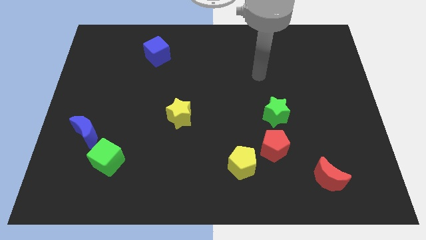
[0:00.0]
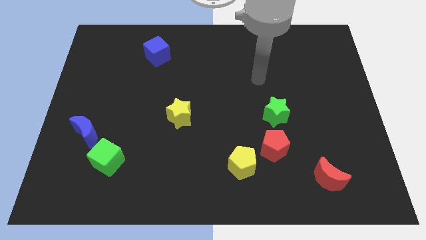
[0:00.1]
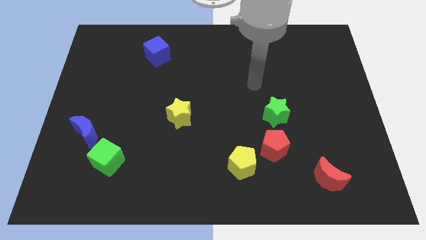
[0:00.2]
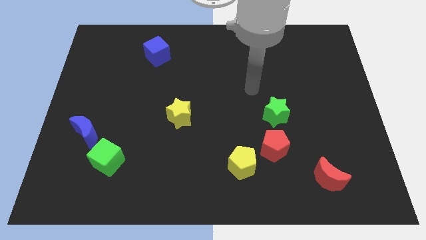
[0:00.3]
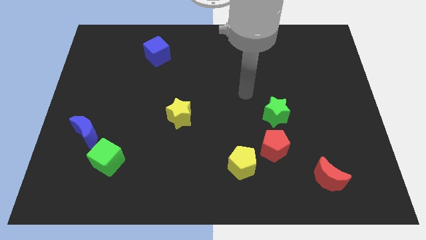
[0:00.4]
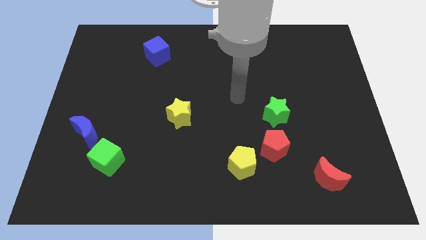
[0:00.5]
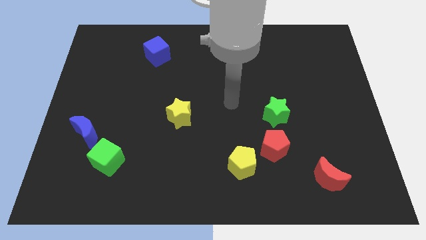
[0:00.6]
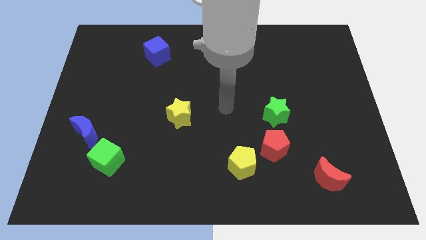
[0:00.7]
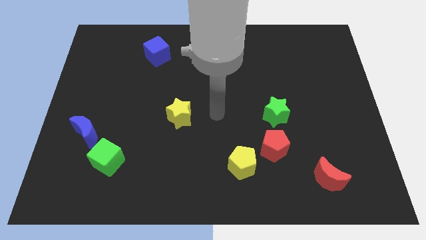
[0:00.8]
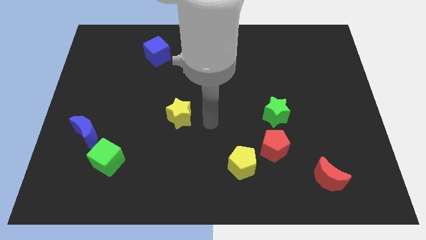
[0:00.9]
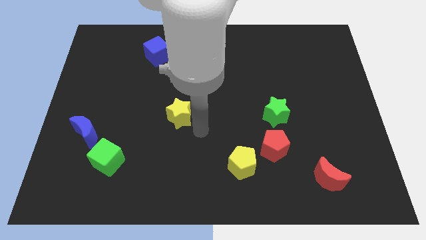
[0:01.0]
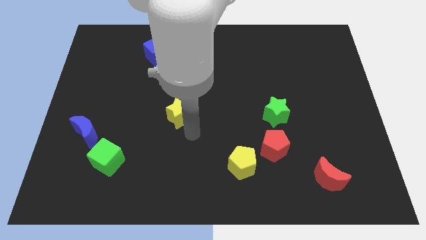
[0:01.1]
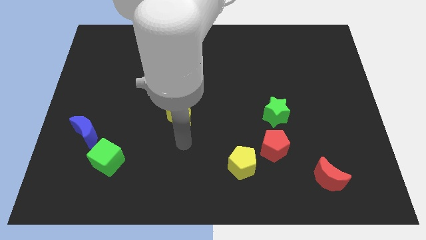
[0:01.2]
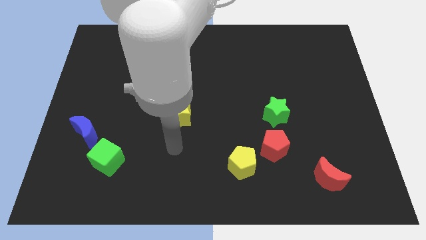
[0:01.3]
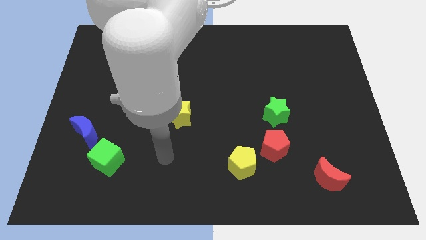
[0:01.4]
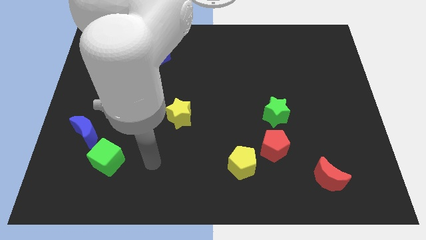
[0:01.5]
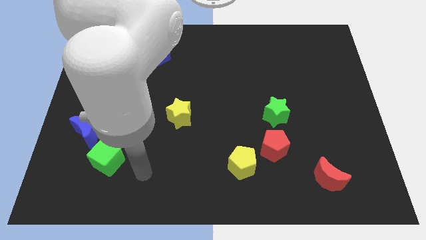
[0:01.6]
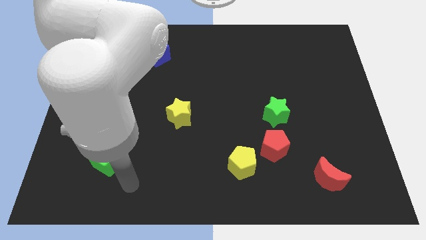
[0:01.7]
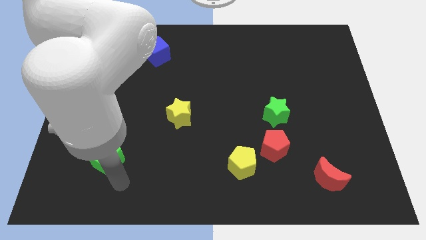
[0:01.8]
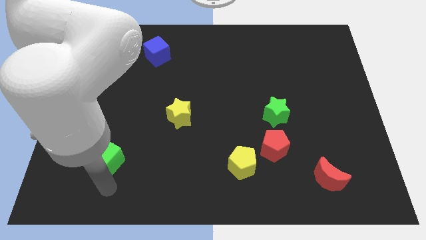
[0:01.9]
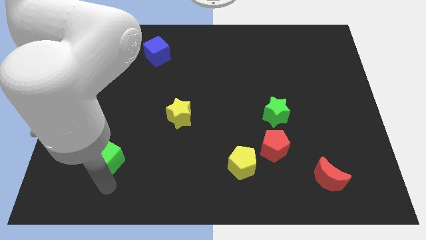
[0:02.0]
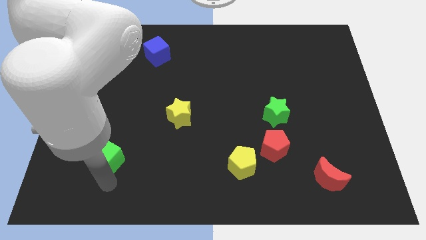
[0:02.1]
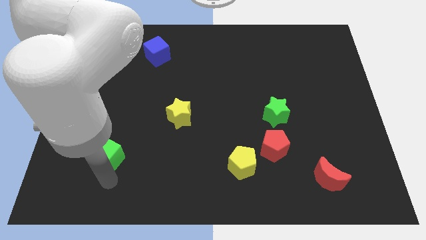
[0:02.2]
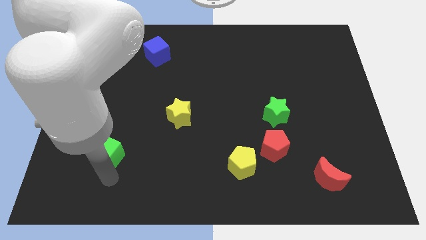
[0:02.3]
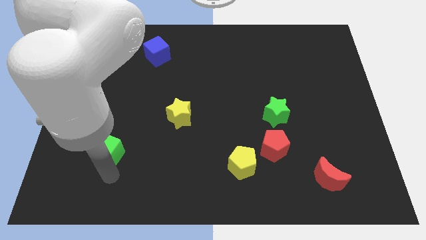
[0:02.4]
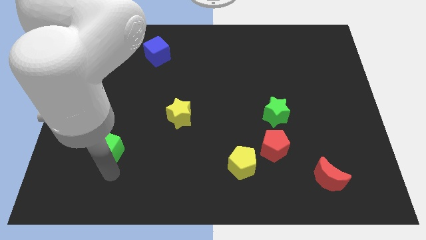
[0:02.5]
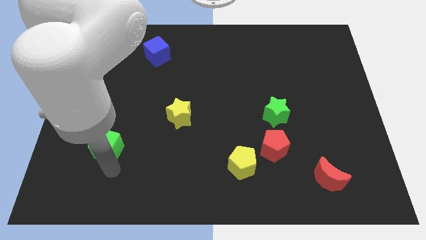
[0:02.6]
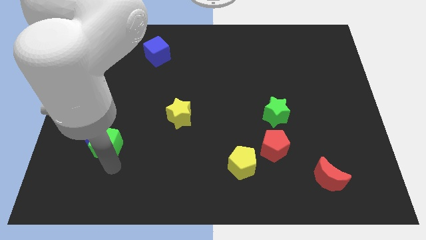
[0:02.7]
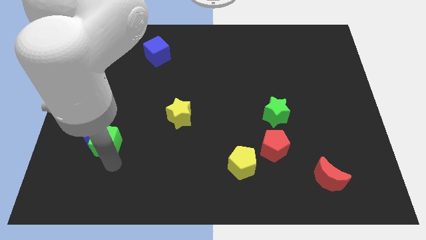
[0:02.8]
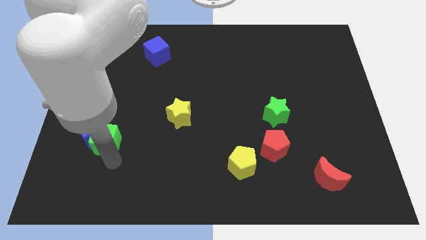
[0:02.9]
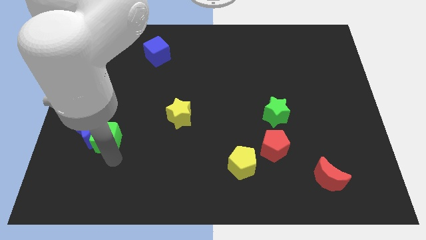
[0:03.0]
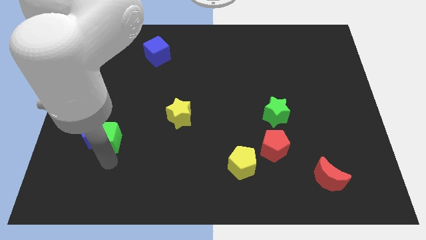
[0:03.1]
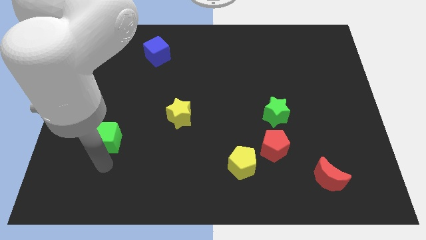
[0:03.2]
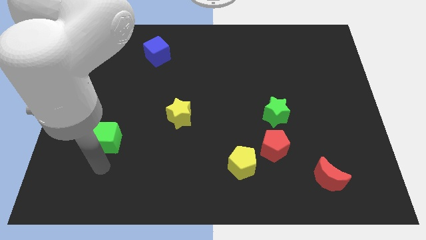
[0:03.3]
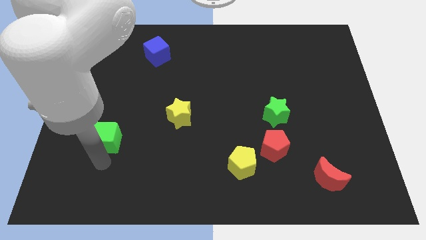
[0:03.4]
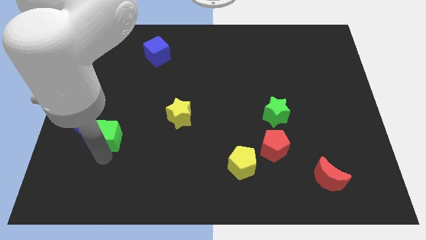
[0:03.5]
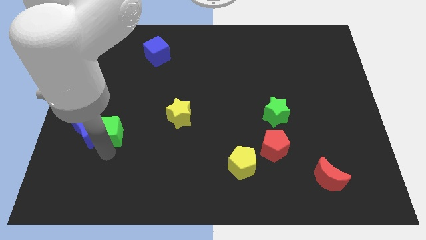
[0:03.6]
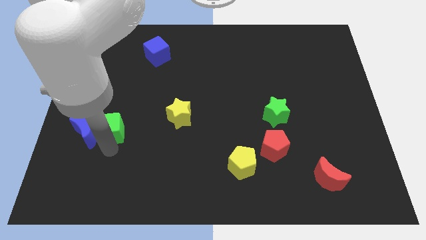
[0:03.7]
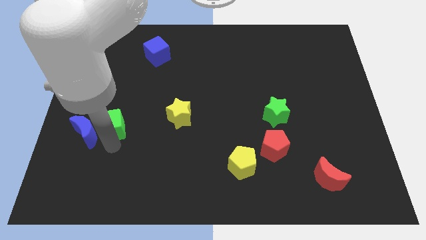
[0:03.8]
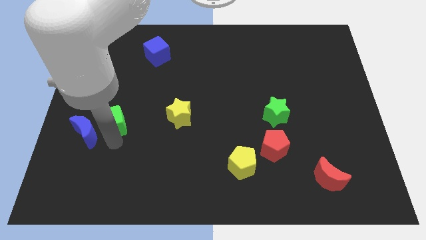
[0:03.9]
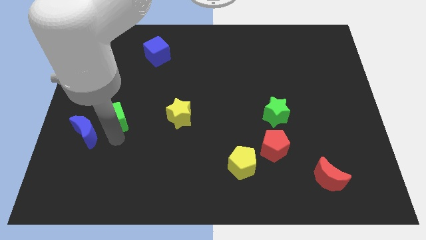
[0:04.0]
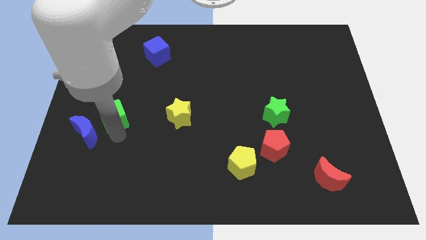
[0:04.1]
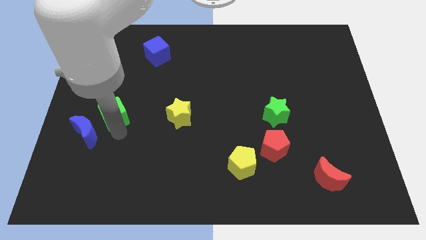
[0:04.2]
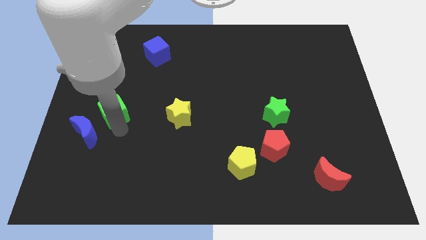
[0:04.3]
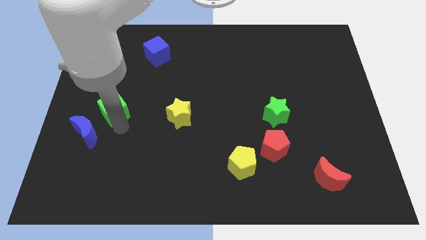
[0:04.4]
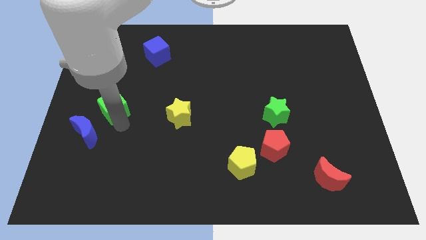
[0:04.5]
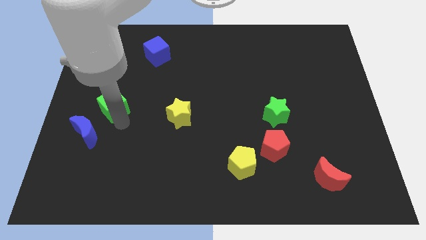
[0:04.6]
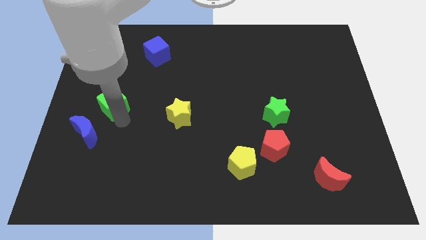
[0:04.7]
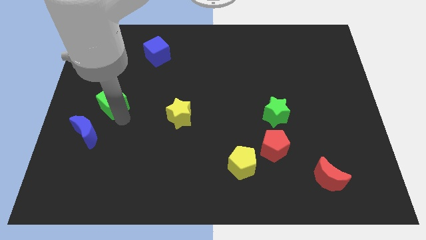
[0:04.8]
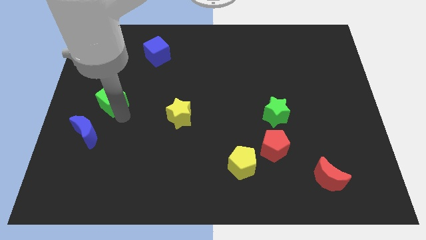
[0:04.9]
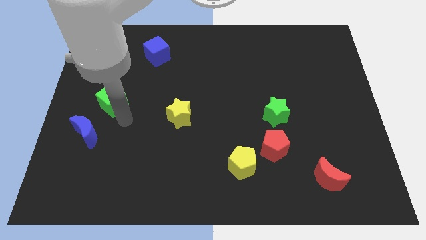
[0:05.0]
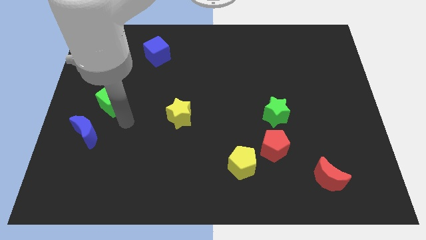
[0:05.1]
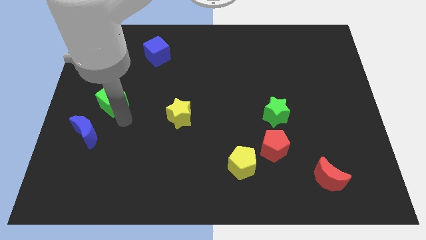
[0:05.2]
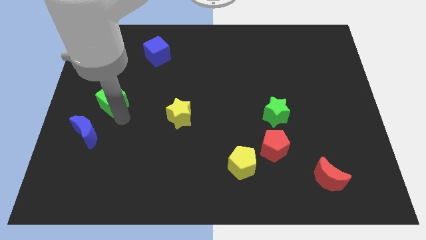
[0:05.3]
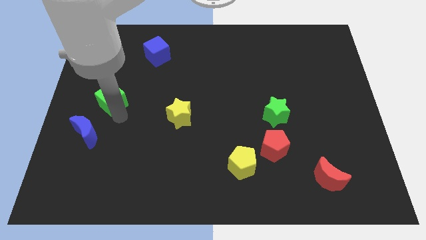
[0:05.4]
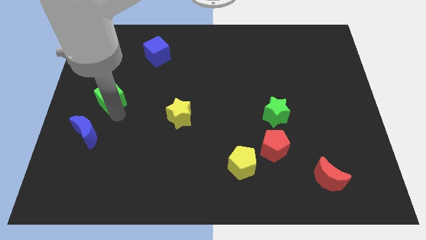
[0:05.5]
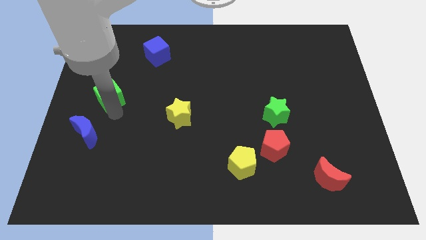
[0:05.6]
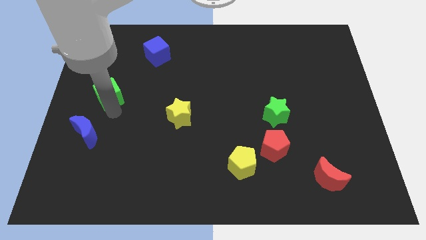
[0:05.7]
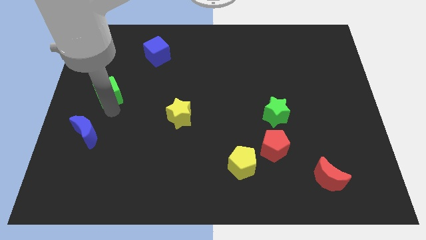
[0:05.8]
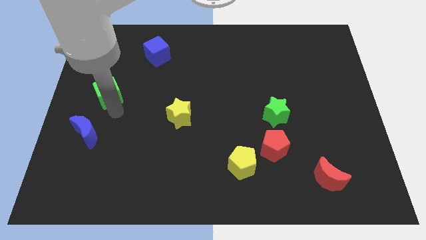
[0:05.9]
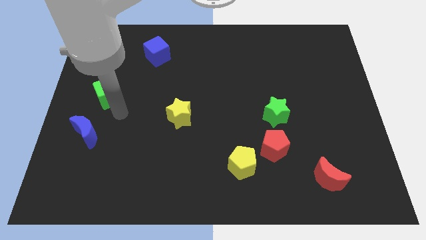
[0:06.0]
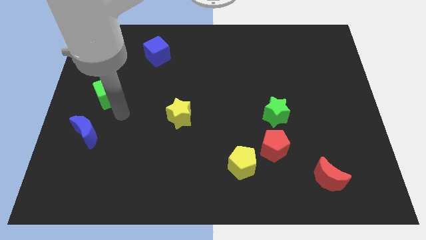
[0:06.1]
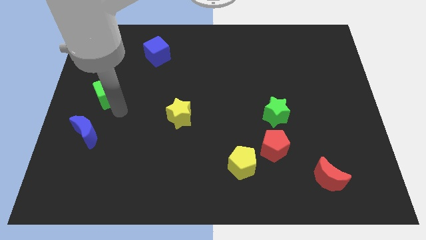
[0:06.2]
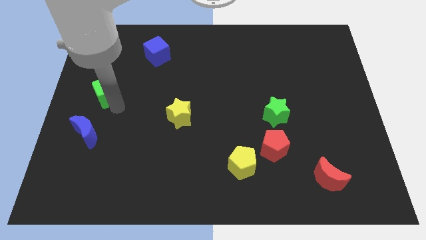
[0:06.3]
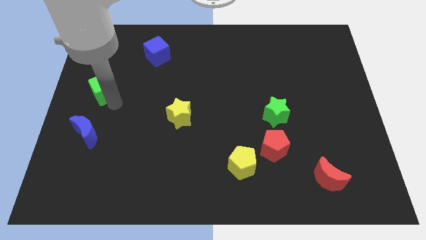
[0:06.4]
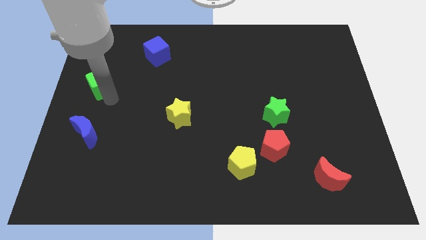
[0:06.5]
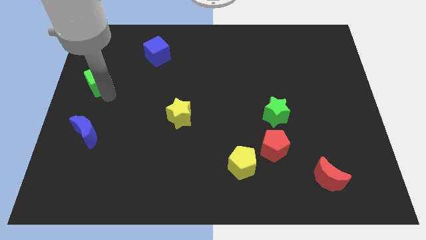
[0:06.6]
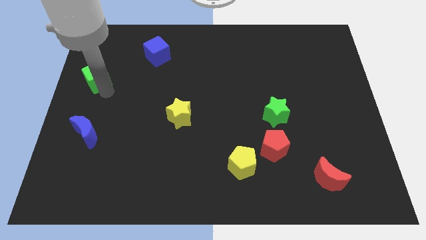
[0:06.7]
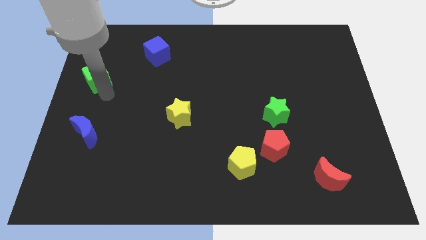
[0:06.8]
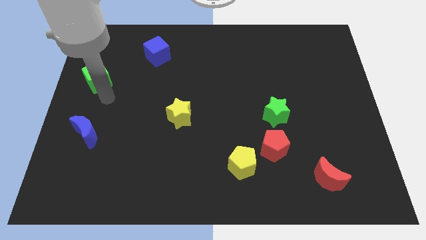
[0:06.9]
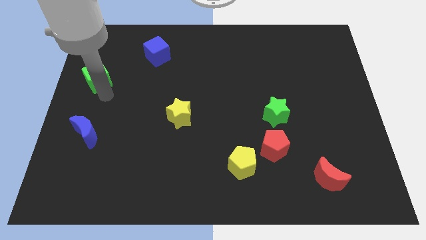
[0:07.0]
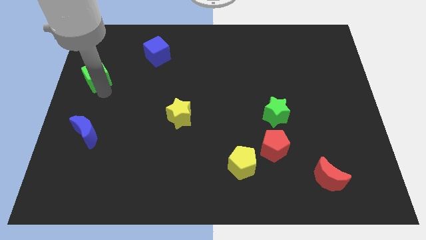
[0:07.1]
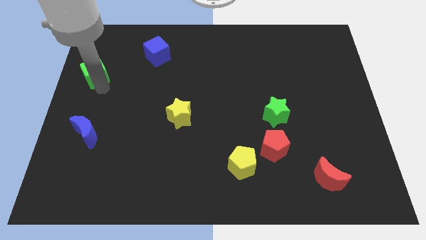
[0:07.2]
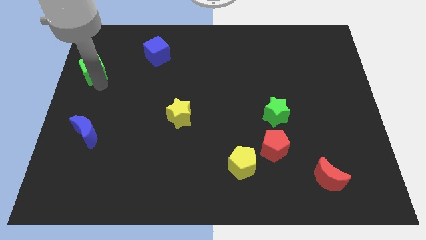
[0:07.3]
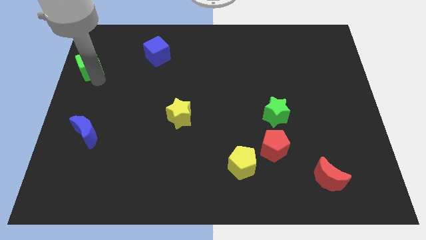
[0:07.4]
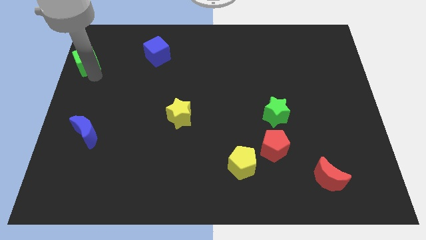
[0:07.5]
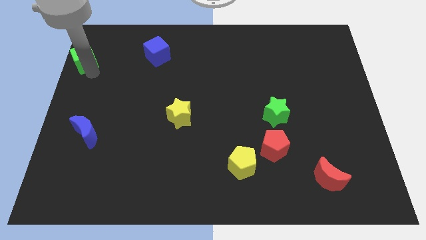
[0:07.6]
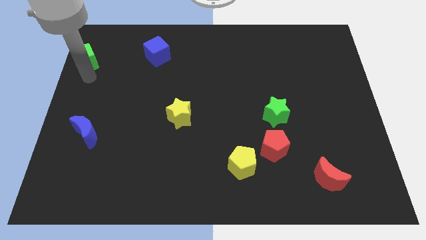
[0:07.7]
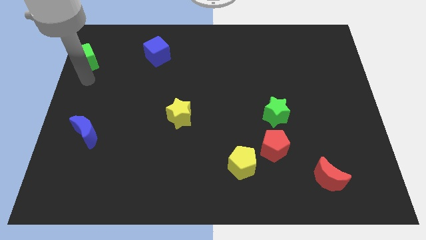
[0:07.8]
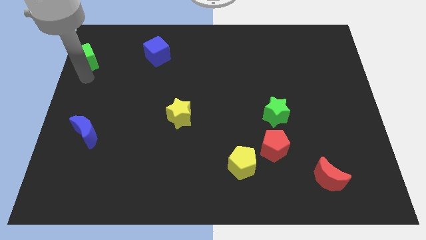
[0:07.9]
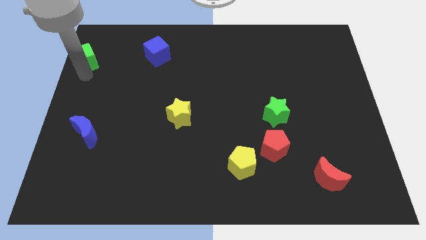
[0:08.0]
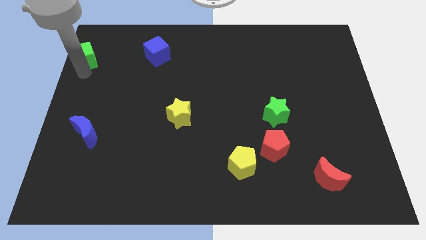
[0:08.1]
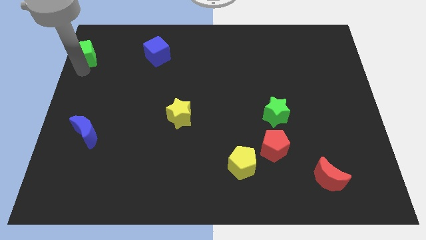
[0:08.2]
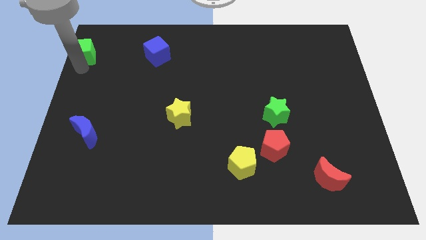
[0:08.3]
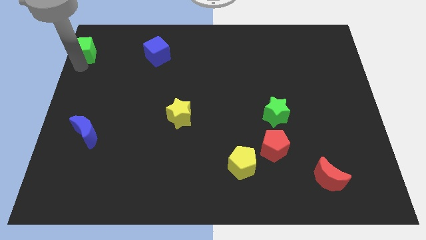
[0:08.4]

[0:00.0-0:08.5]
push the green cube to the top left
